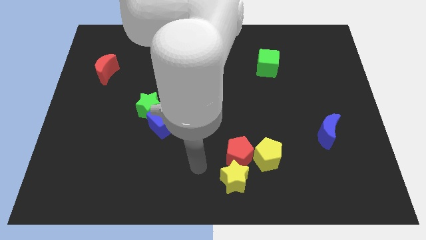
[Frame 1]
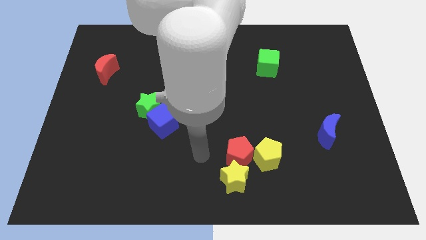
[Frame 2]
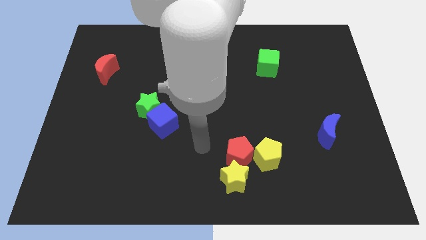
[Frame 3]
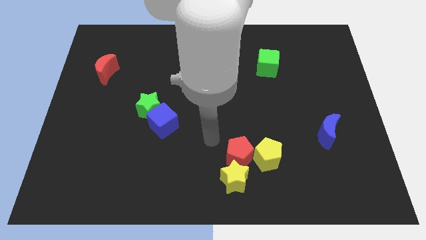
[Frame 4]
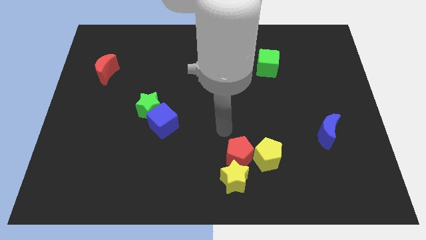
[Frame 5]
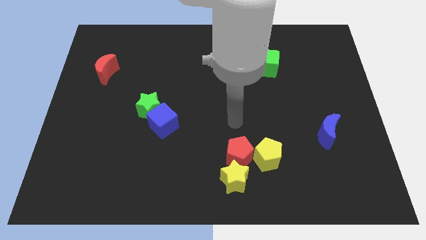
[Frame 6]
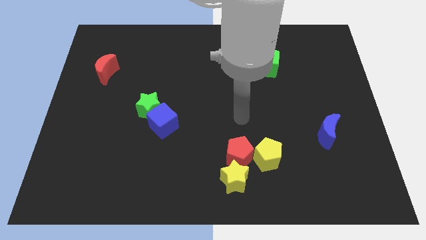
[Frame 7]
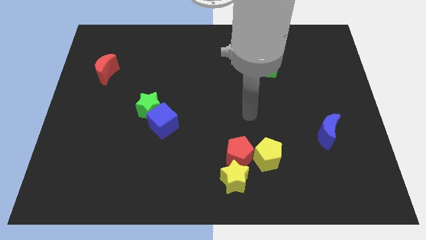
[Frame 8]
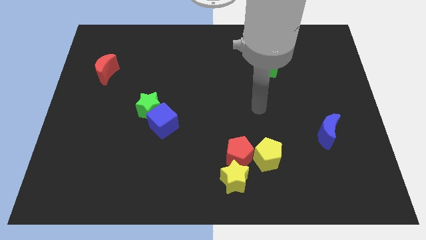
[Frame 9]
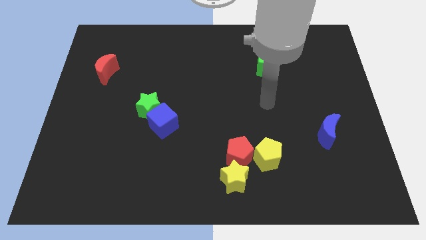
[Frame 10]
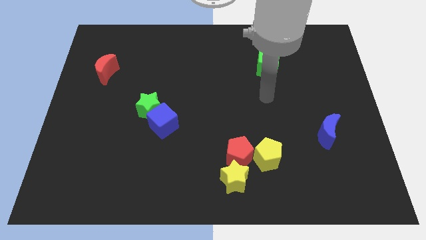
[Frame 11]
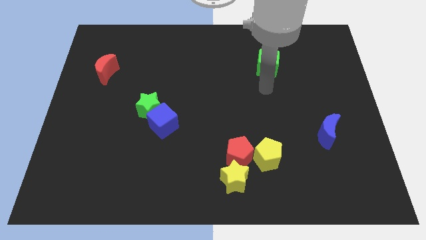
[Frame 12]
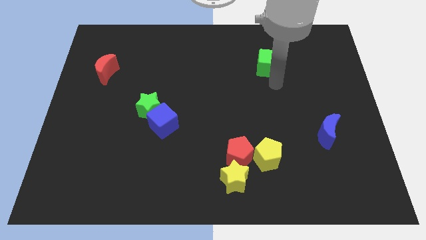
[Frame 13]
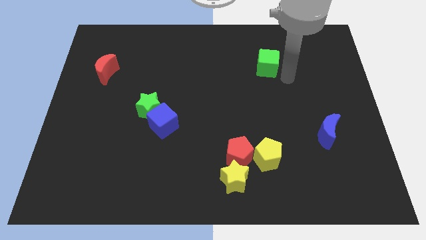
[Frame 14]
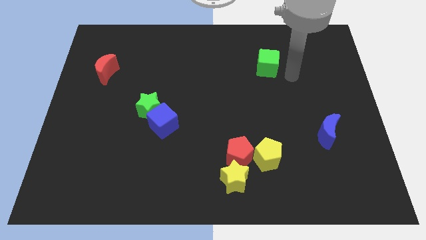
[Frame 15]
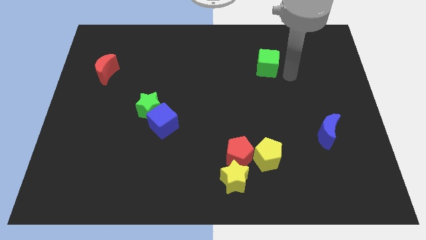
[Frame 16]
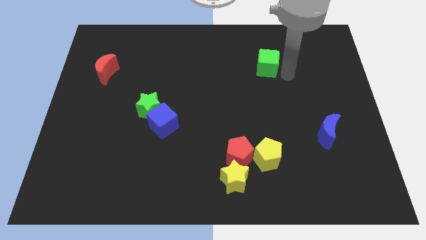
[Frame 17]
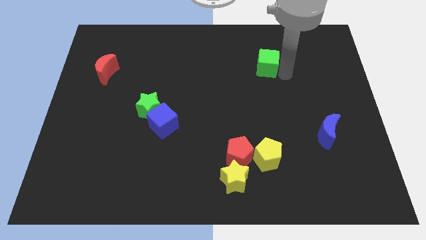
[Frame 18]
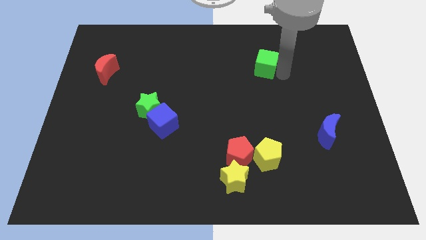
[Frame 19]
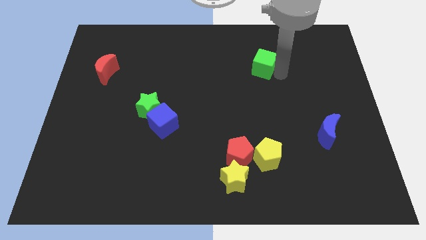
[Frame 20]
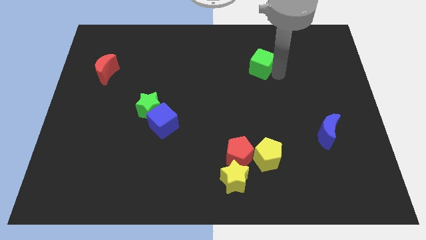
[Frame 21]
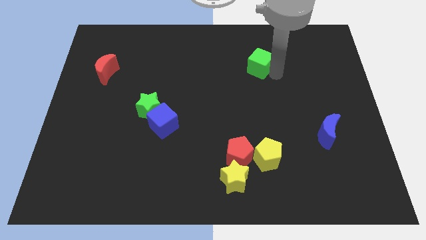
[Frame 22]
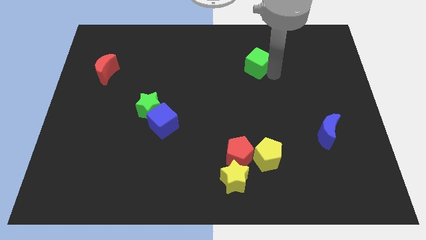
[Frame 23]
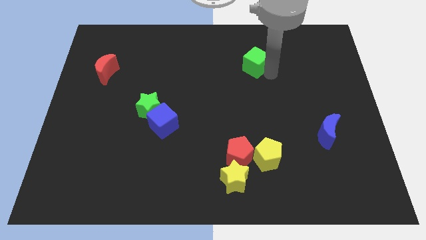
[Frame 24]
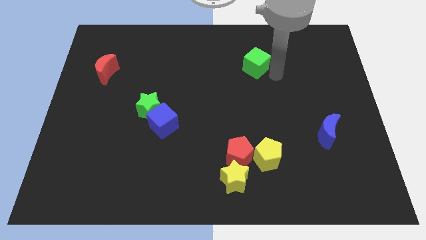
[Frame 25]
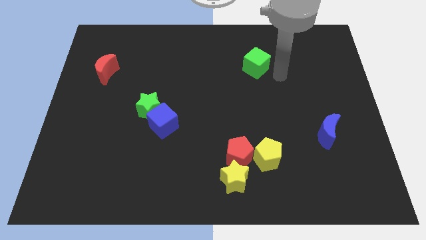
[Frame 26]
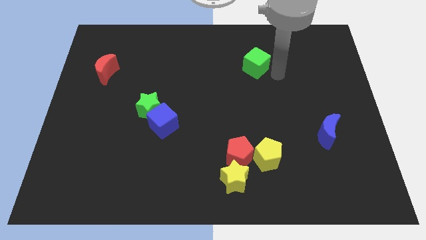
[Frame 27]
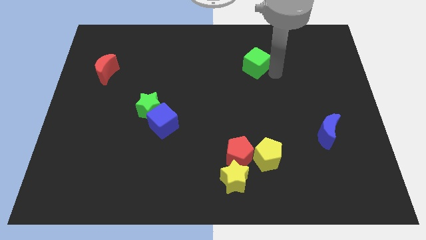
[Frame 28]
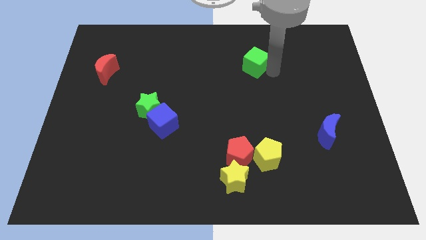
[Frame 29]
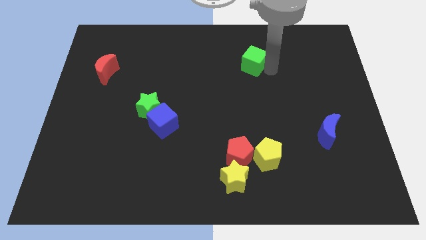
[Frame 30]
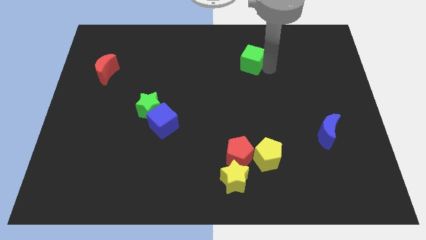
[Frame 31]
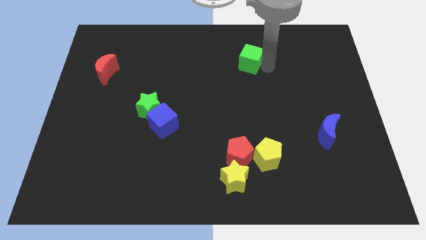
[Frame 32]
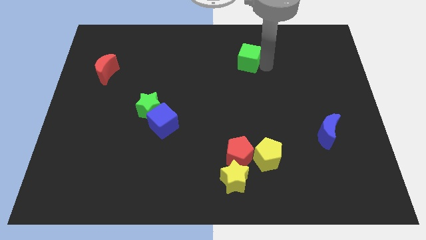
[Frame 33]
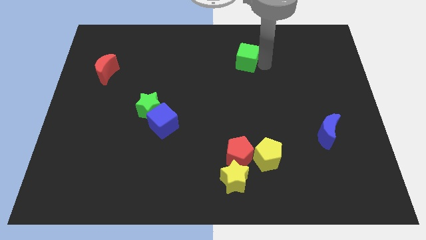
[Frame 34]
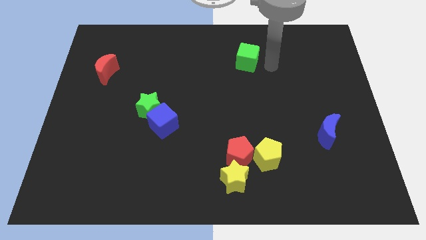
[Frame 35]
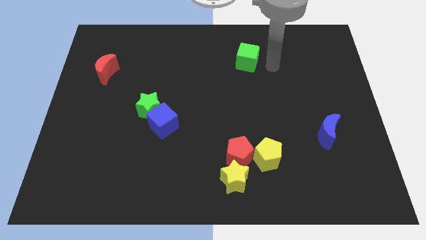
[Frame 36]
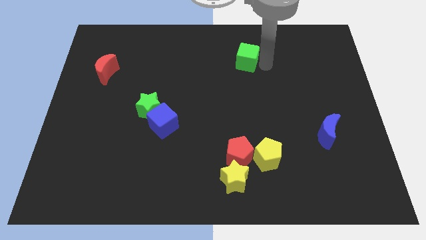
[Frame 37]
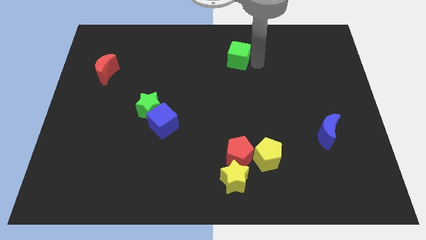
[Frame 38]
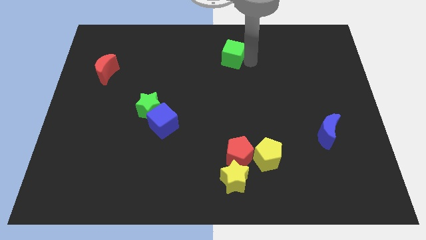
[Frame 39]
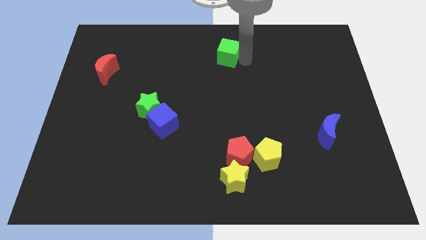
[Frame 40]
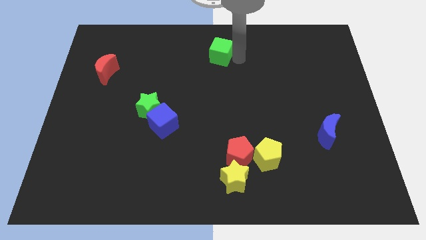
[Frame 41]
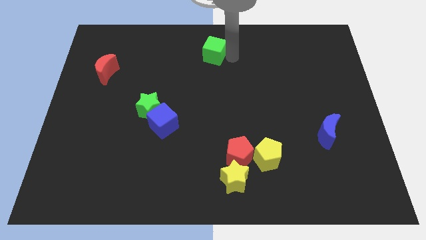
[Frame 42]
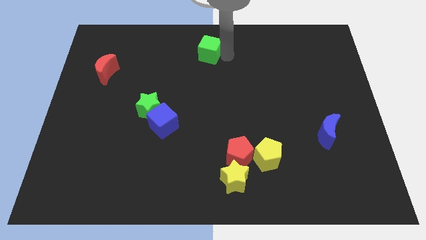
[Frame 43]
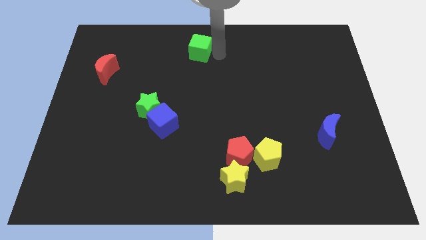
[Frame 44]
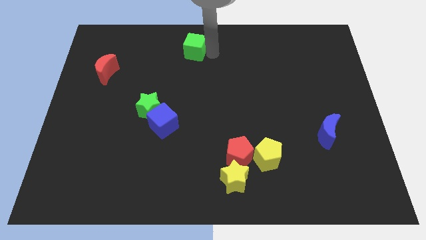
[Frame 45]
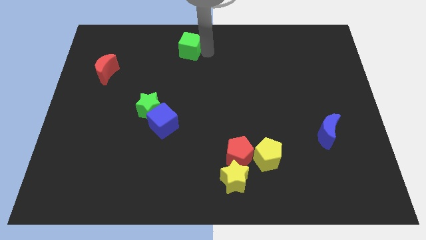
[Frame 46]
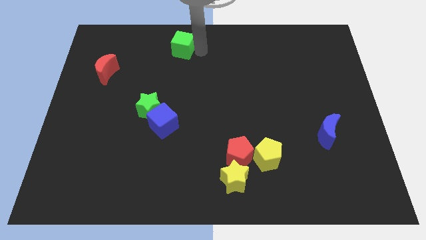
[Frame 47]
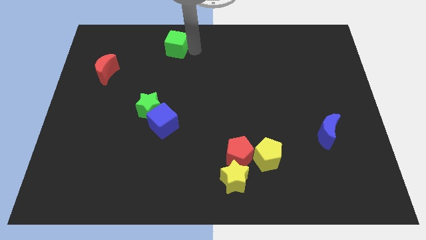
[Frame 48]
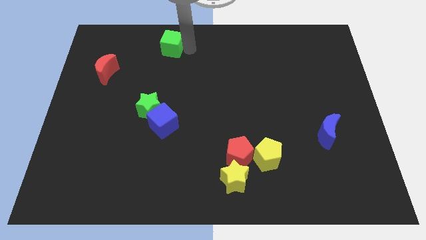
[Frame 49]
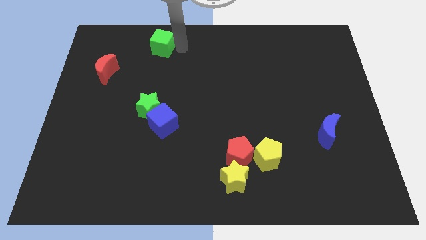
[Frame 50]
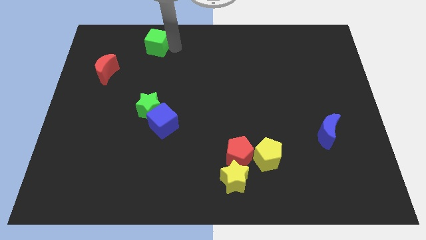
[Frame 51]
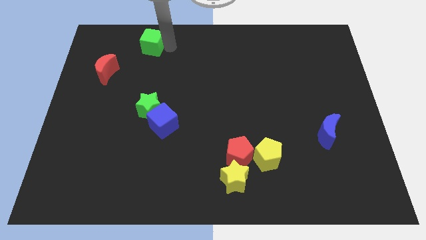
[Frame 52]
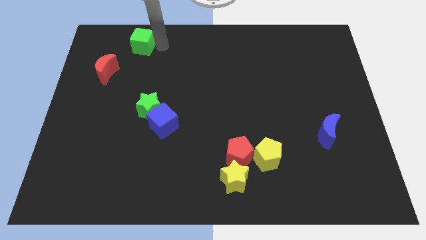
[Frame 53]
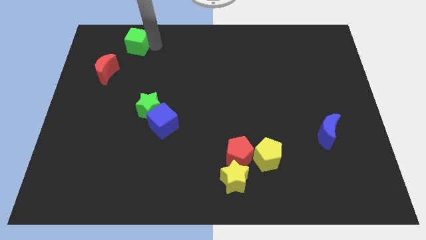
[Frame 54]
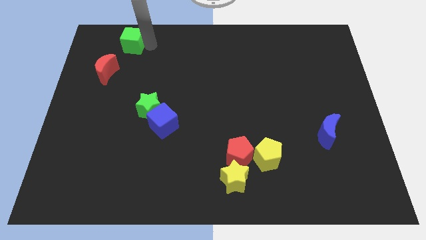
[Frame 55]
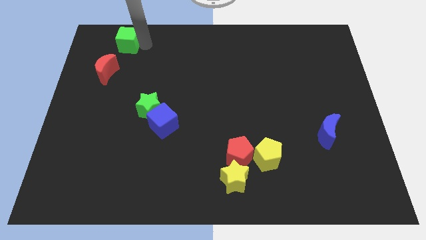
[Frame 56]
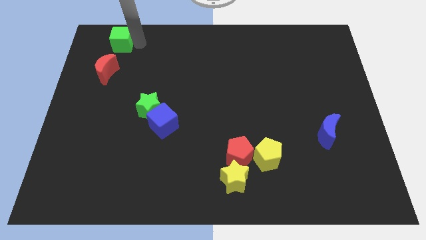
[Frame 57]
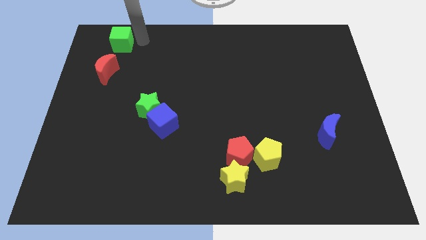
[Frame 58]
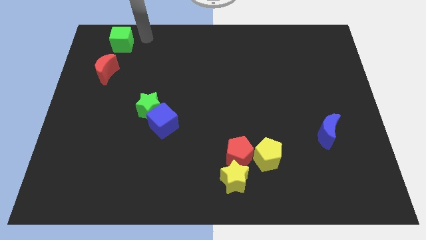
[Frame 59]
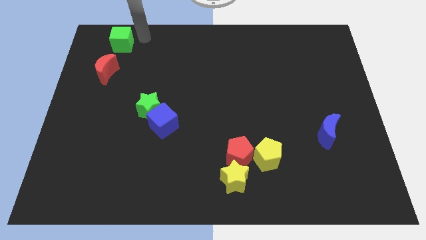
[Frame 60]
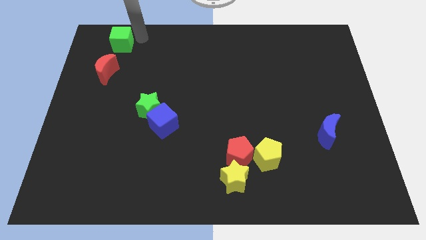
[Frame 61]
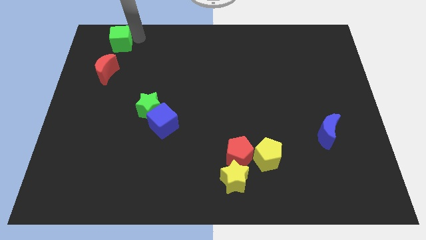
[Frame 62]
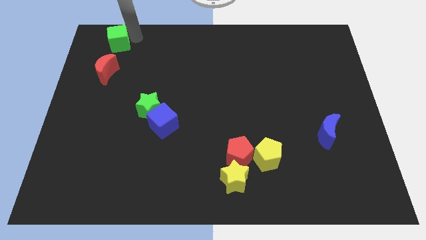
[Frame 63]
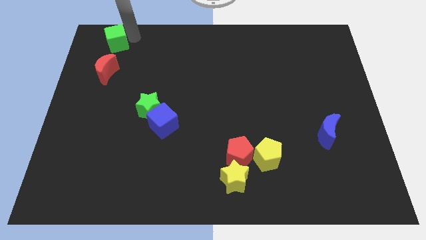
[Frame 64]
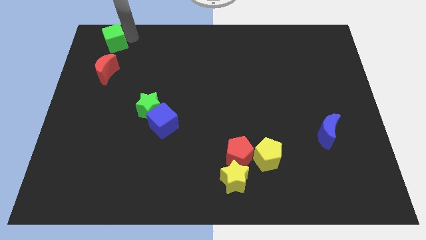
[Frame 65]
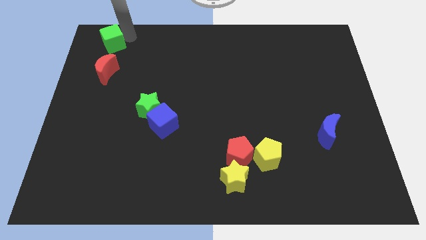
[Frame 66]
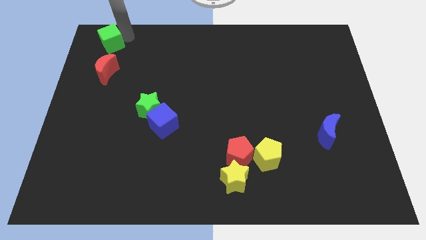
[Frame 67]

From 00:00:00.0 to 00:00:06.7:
put the green cube to the upper left corner
